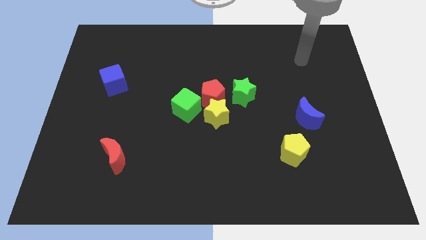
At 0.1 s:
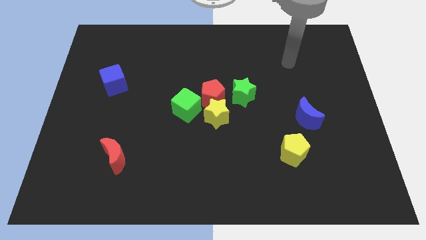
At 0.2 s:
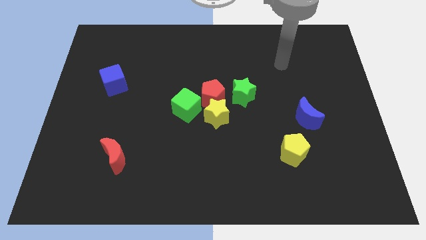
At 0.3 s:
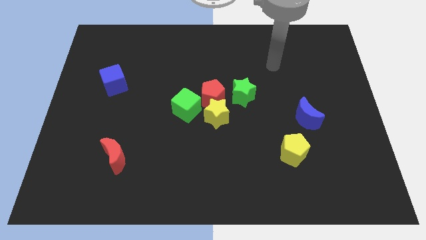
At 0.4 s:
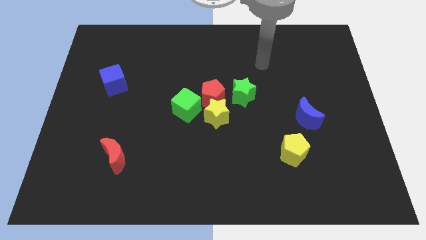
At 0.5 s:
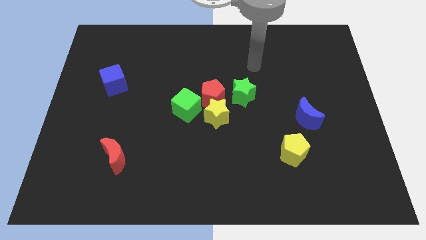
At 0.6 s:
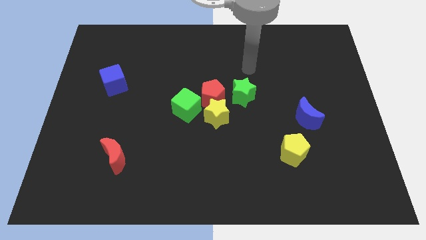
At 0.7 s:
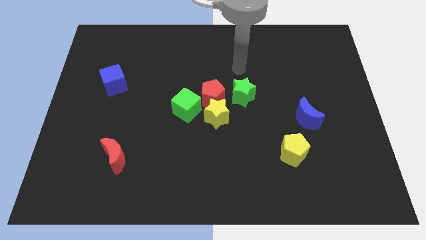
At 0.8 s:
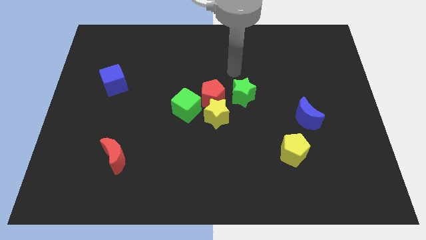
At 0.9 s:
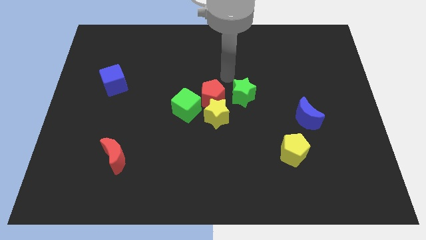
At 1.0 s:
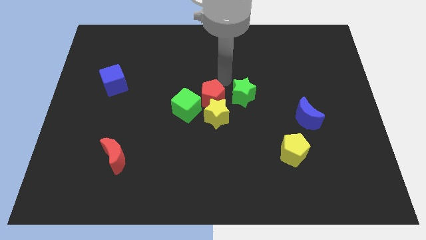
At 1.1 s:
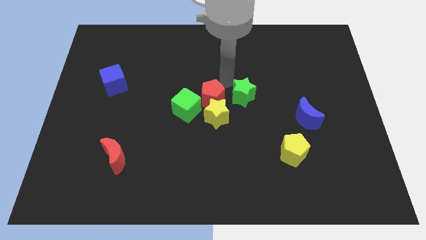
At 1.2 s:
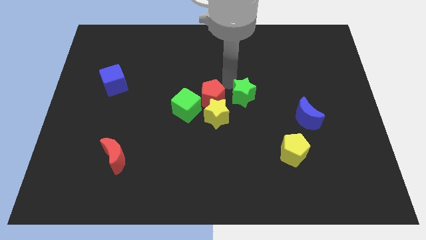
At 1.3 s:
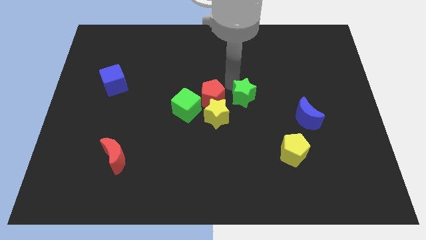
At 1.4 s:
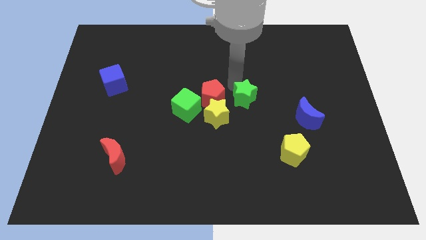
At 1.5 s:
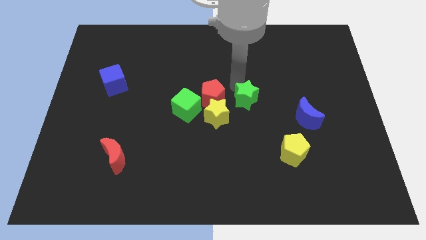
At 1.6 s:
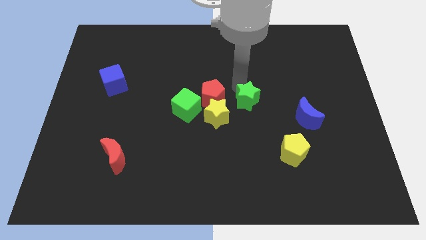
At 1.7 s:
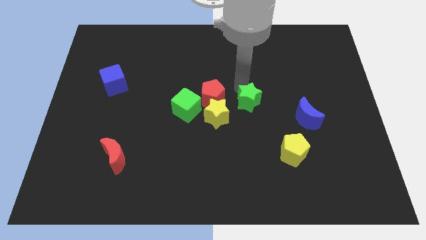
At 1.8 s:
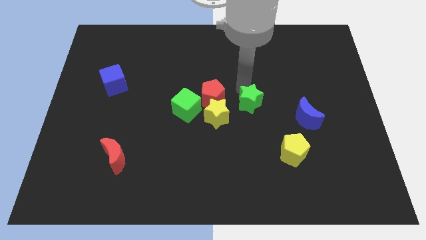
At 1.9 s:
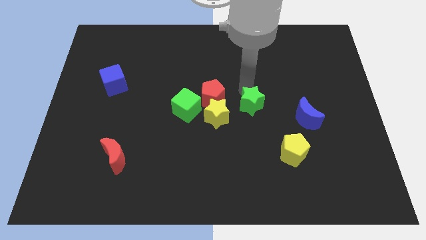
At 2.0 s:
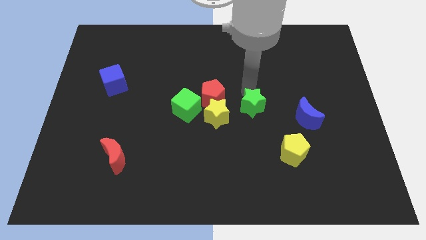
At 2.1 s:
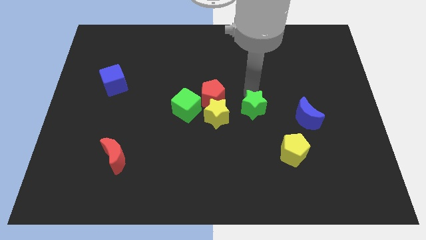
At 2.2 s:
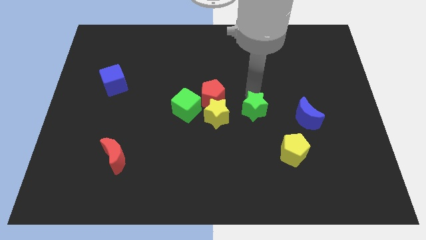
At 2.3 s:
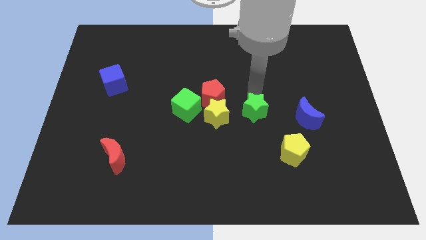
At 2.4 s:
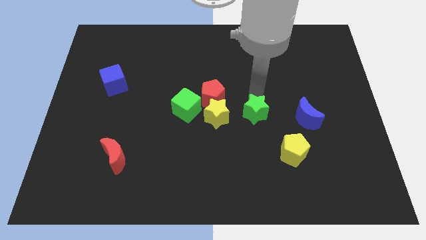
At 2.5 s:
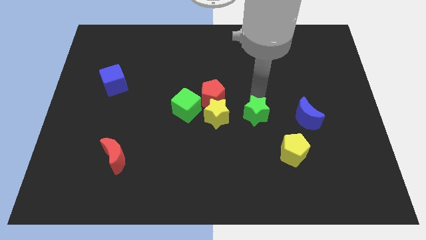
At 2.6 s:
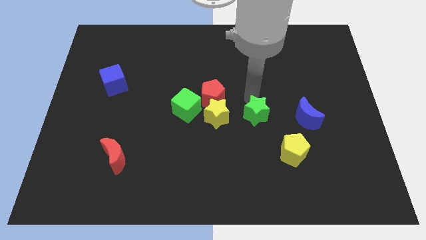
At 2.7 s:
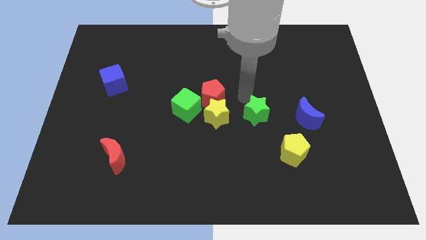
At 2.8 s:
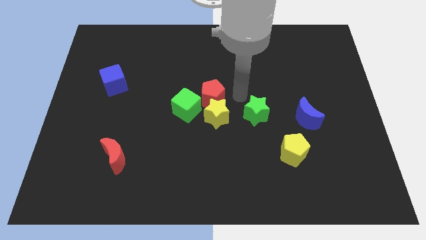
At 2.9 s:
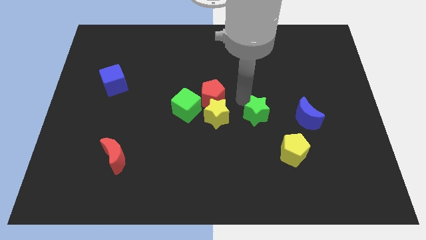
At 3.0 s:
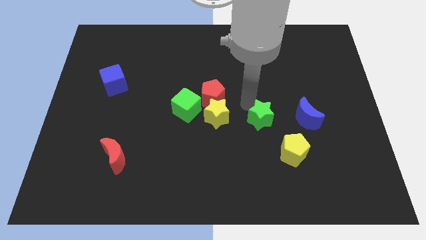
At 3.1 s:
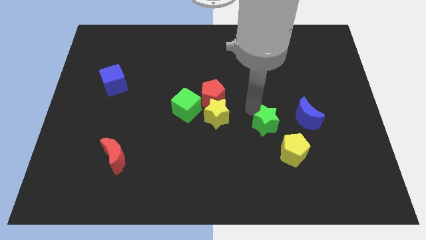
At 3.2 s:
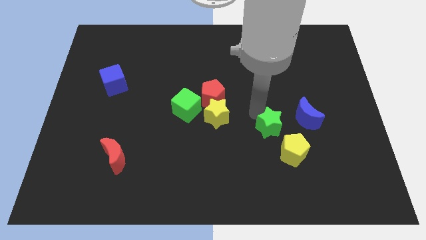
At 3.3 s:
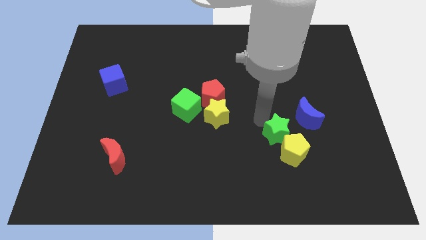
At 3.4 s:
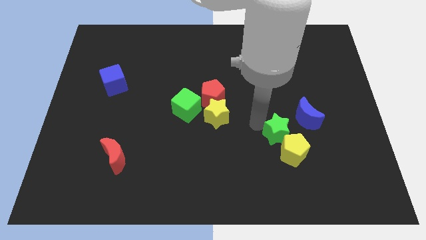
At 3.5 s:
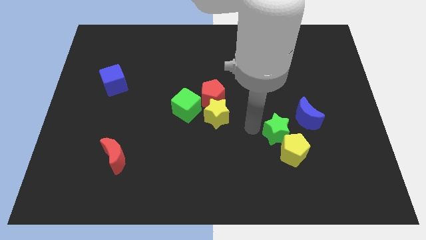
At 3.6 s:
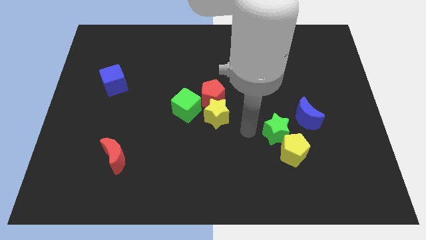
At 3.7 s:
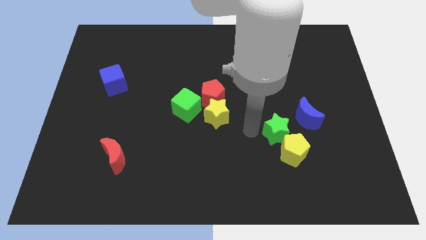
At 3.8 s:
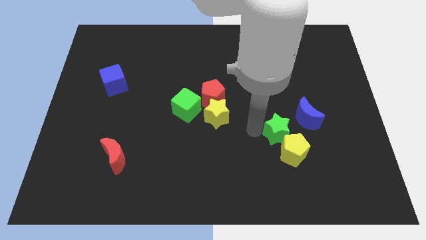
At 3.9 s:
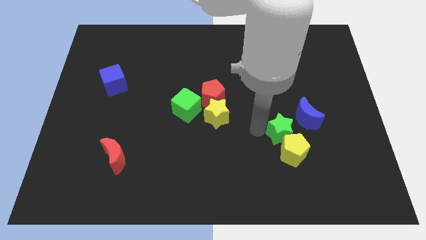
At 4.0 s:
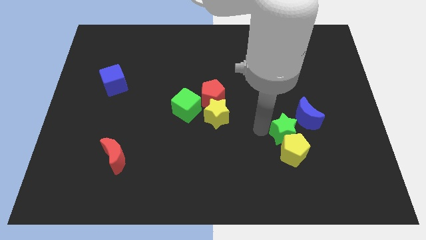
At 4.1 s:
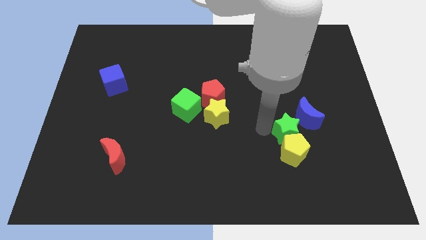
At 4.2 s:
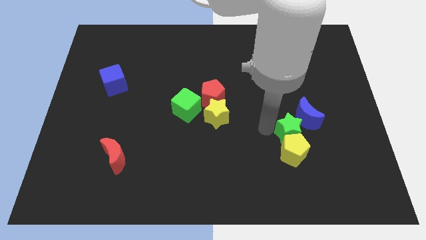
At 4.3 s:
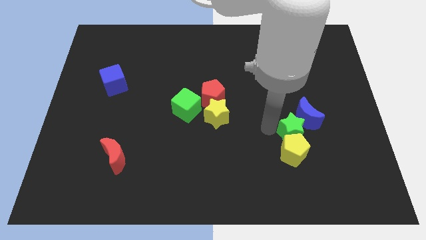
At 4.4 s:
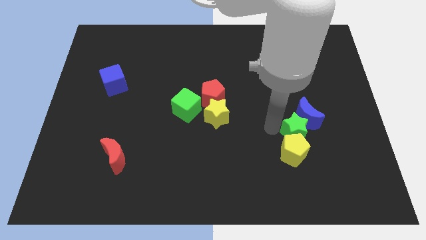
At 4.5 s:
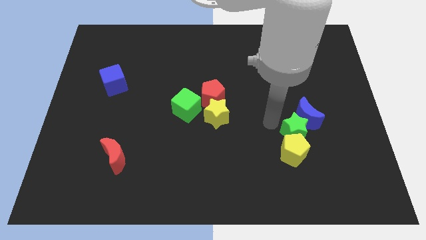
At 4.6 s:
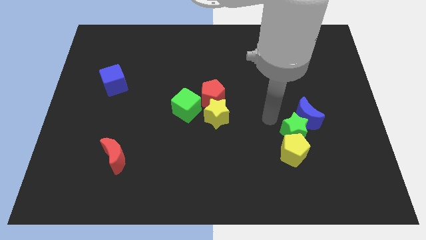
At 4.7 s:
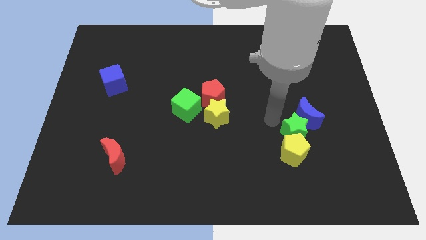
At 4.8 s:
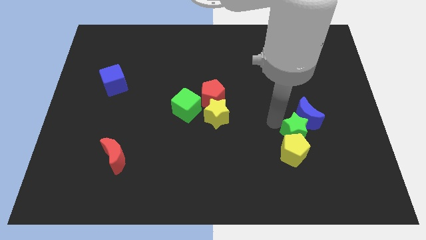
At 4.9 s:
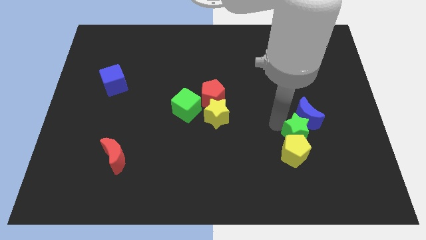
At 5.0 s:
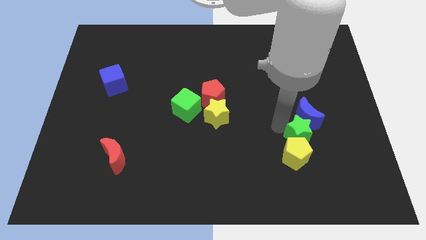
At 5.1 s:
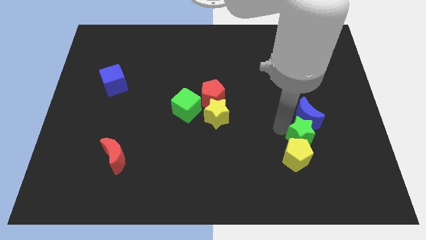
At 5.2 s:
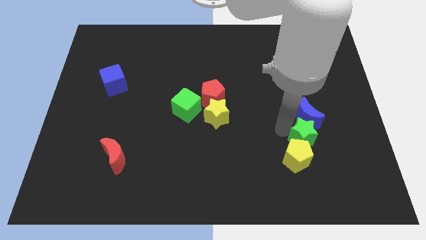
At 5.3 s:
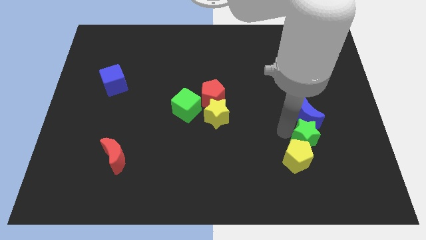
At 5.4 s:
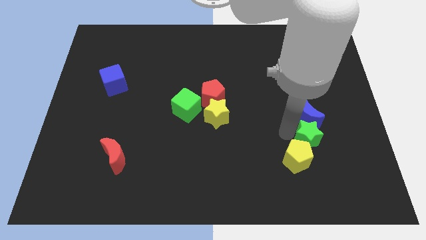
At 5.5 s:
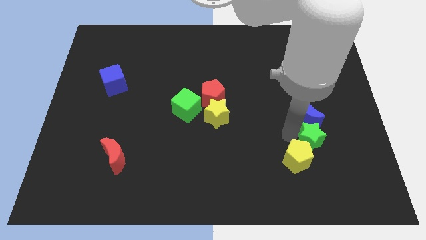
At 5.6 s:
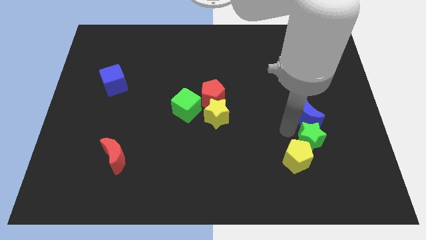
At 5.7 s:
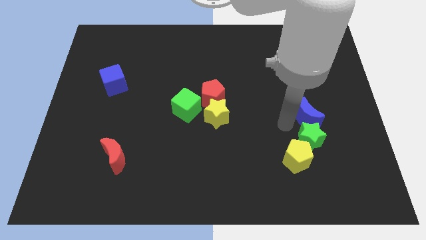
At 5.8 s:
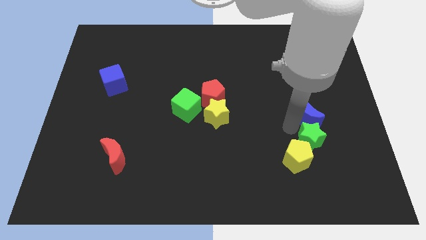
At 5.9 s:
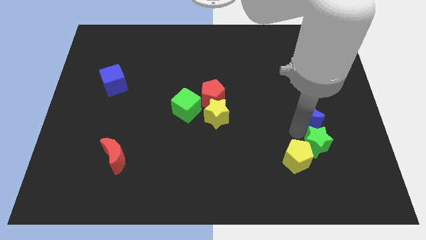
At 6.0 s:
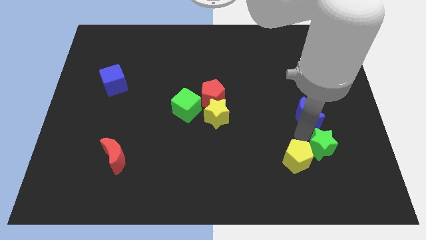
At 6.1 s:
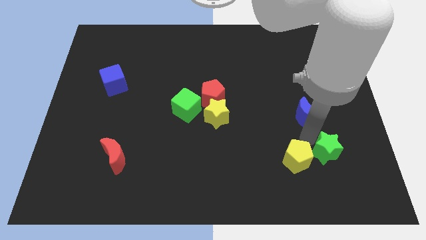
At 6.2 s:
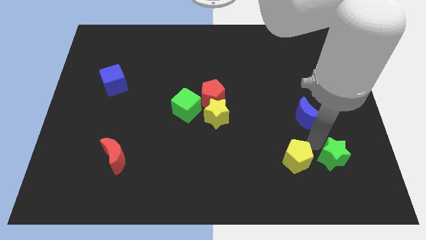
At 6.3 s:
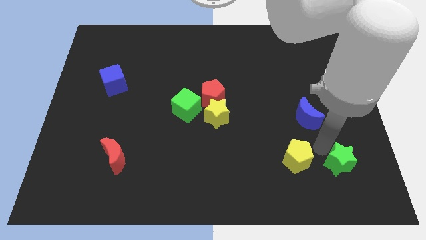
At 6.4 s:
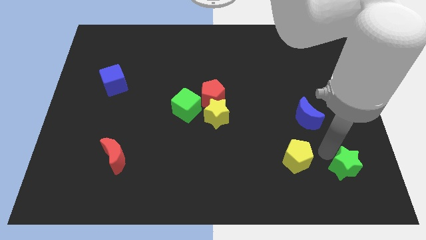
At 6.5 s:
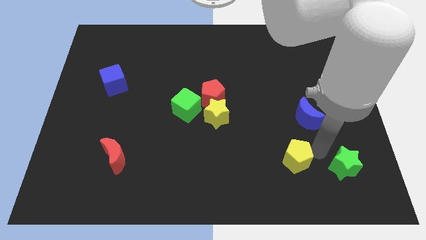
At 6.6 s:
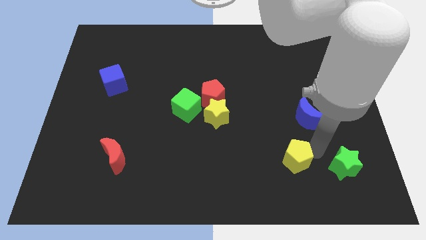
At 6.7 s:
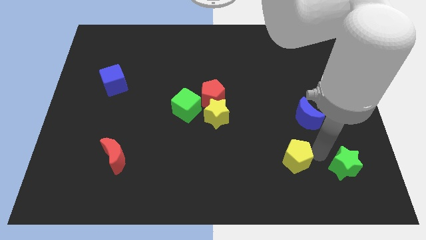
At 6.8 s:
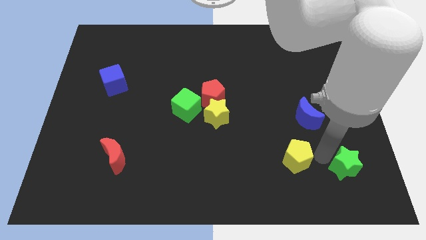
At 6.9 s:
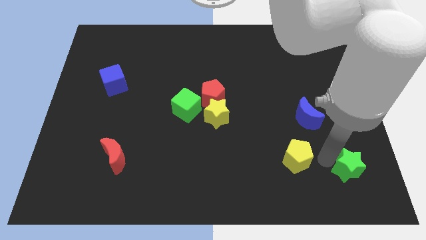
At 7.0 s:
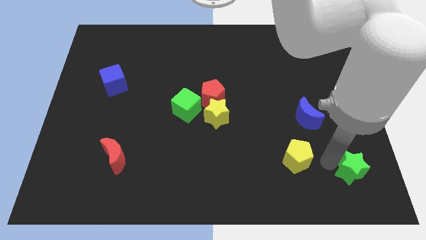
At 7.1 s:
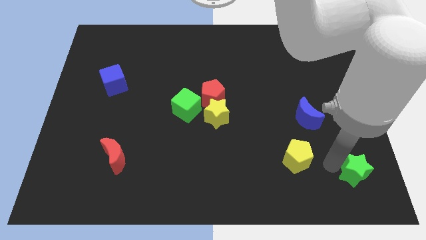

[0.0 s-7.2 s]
move the green star to the bottom right of the board

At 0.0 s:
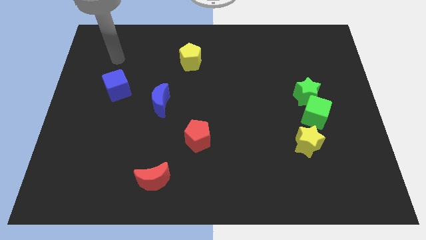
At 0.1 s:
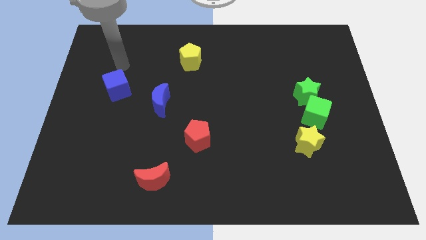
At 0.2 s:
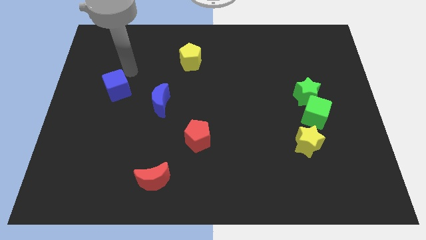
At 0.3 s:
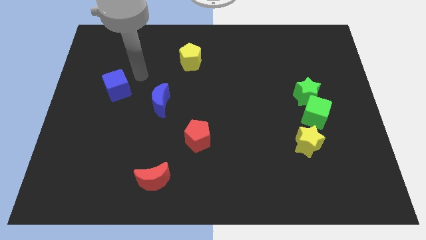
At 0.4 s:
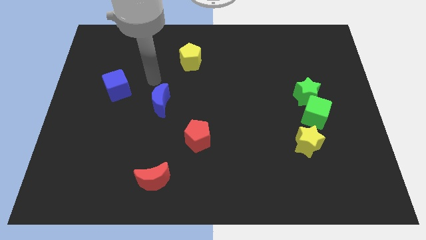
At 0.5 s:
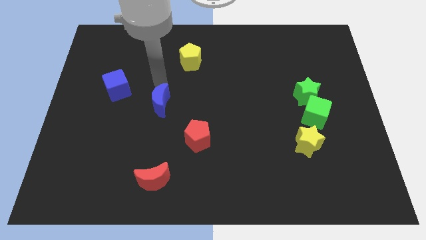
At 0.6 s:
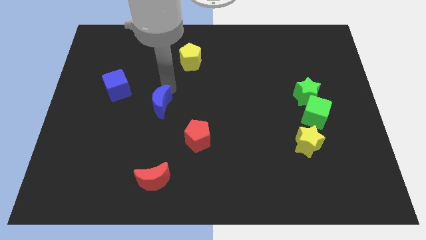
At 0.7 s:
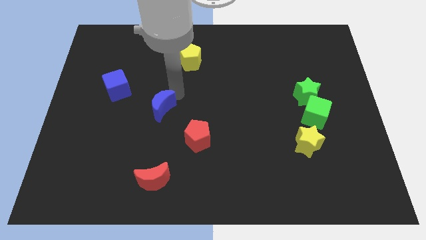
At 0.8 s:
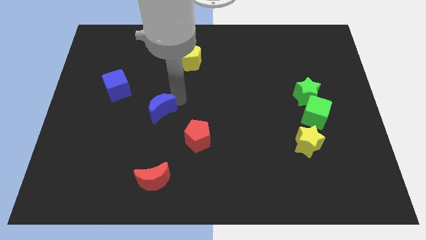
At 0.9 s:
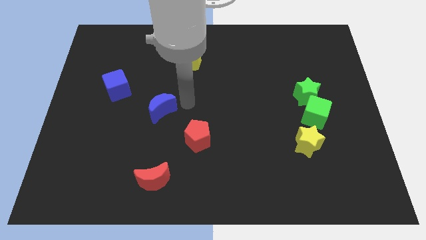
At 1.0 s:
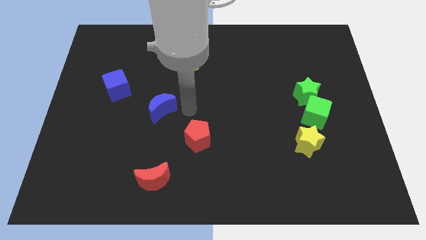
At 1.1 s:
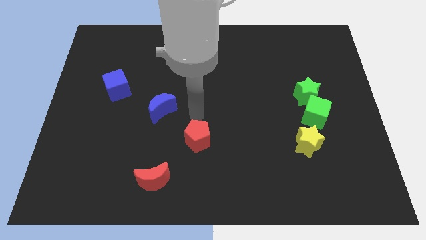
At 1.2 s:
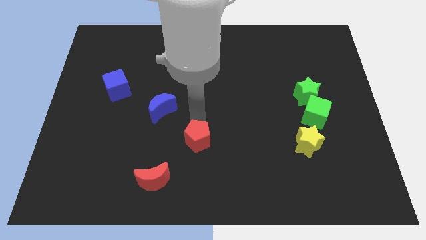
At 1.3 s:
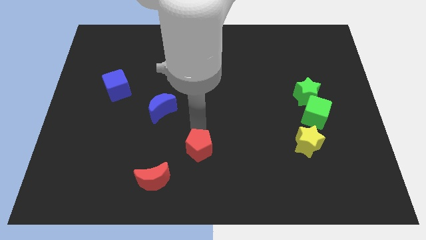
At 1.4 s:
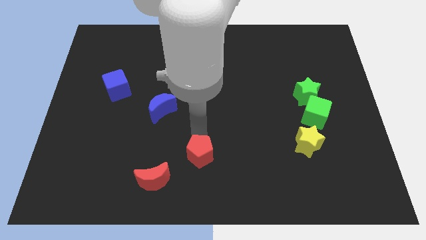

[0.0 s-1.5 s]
slide the red pentagon to the bottom
